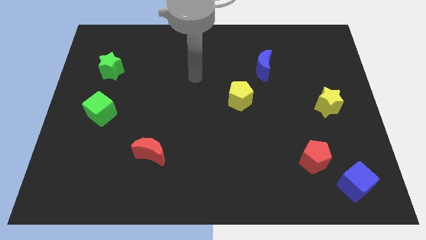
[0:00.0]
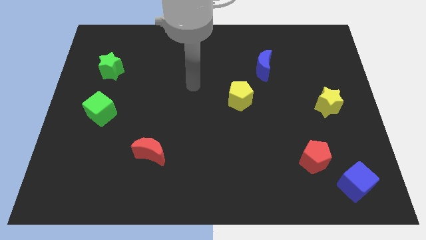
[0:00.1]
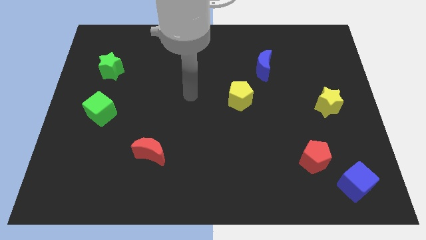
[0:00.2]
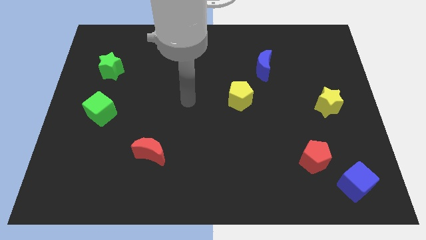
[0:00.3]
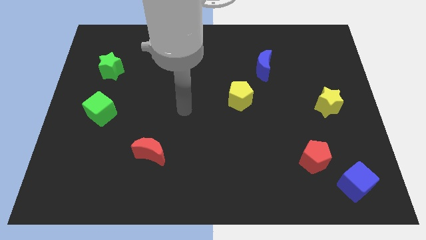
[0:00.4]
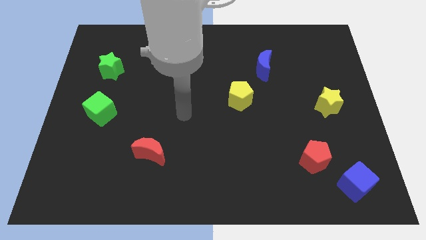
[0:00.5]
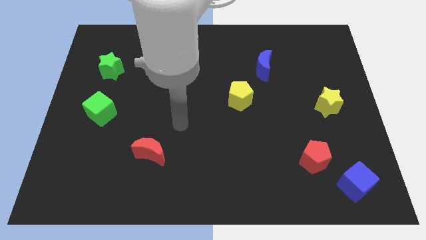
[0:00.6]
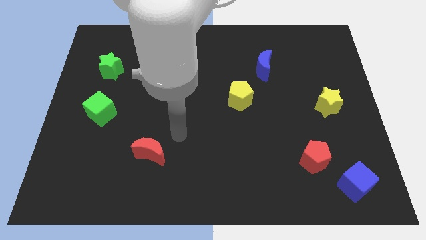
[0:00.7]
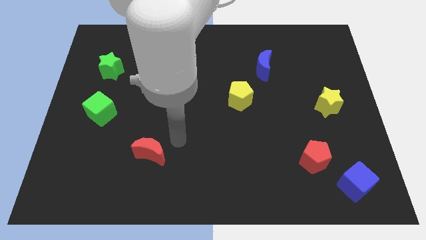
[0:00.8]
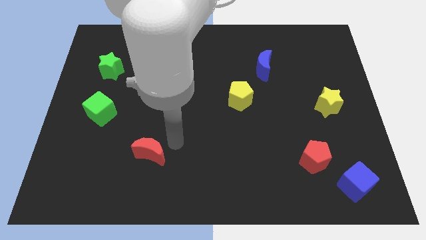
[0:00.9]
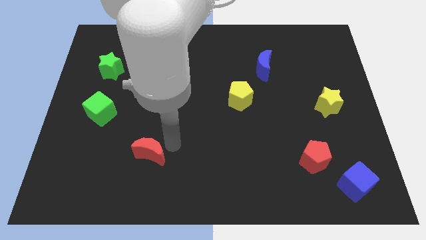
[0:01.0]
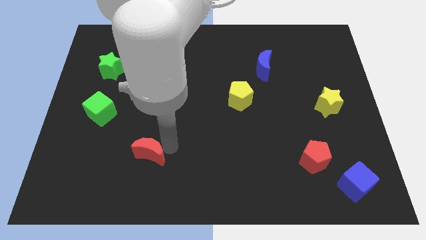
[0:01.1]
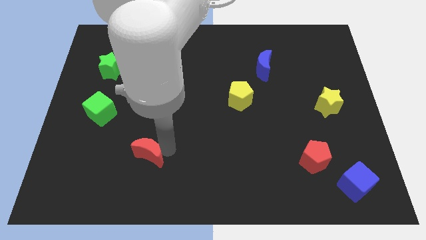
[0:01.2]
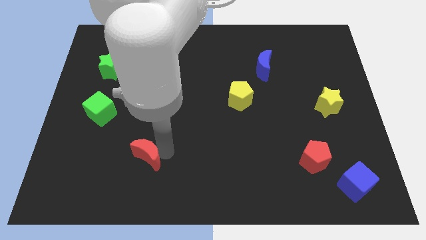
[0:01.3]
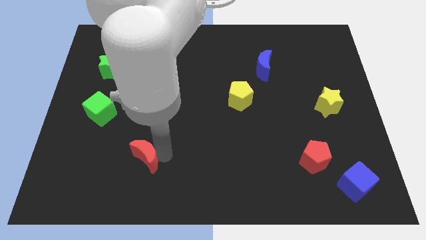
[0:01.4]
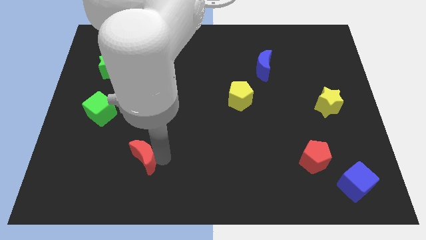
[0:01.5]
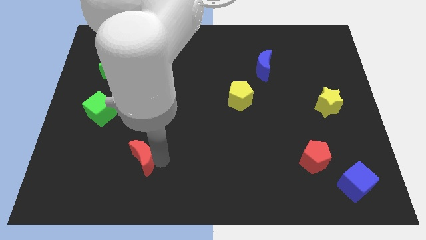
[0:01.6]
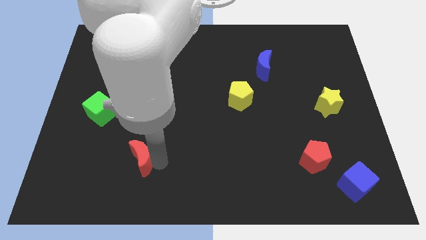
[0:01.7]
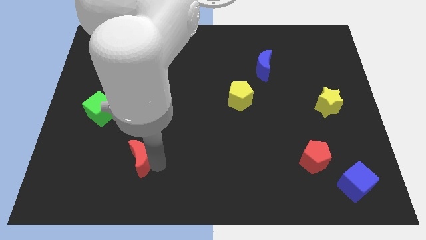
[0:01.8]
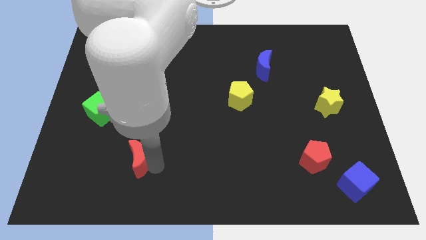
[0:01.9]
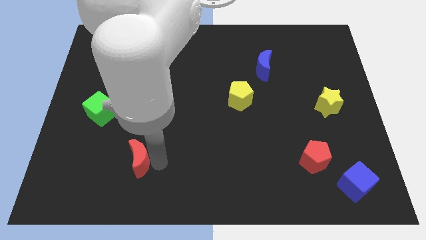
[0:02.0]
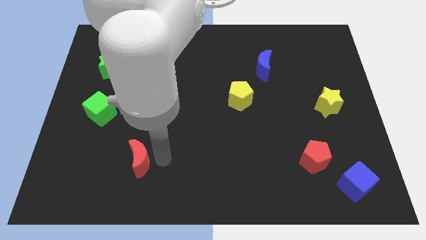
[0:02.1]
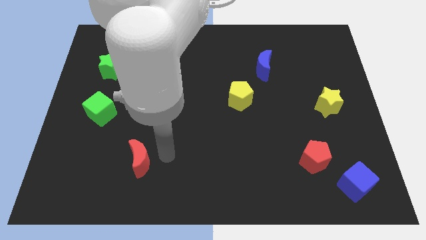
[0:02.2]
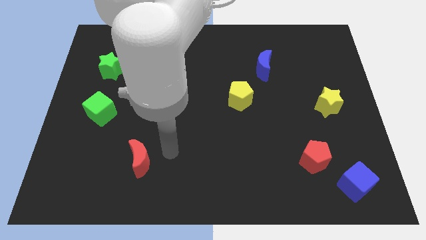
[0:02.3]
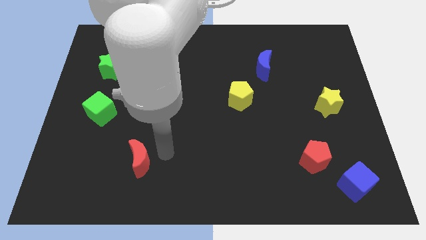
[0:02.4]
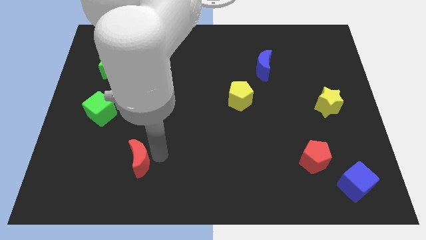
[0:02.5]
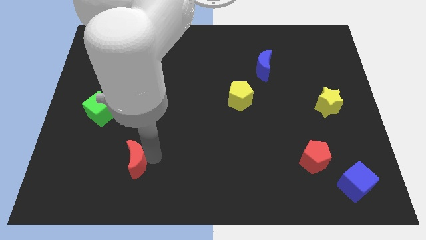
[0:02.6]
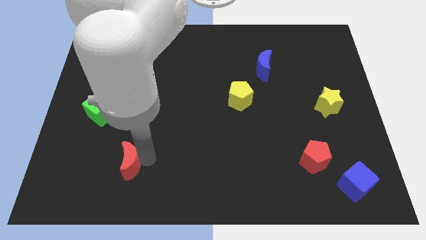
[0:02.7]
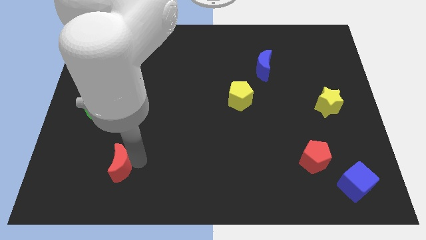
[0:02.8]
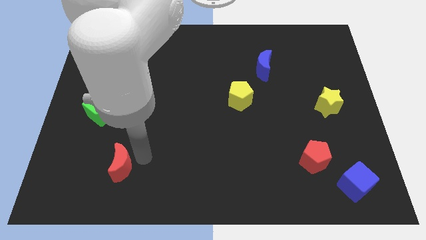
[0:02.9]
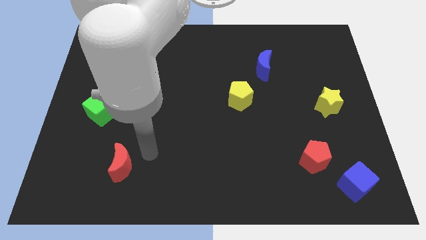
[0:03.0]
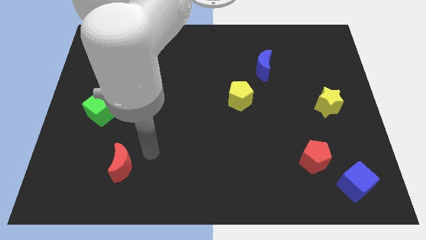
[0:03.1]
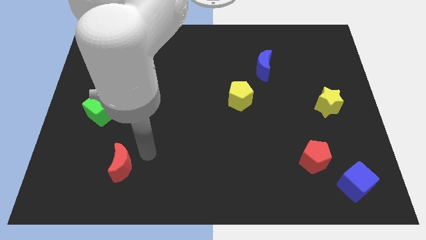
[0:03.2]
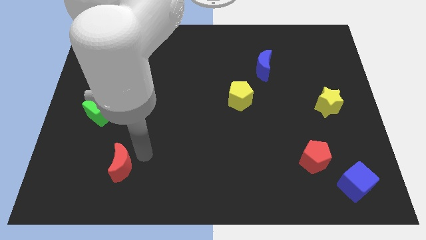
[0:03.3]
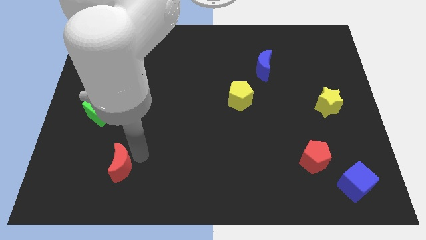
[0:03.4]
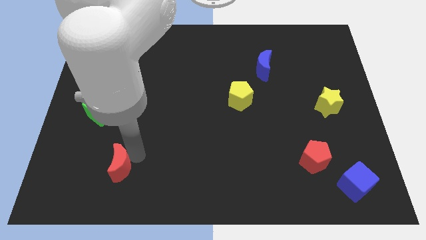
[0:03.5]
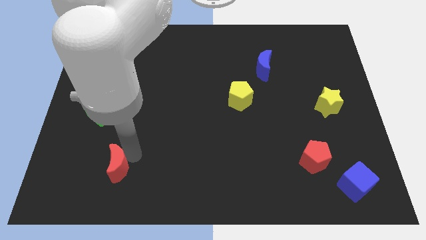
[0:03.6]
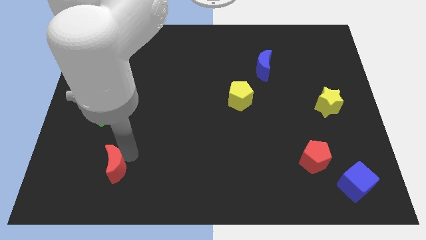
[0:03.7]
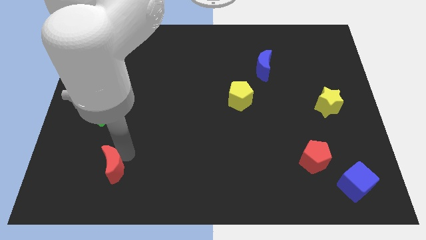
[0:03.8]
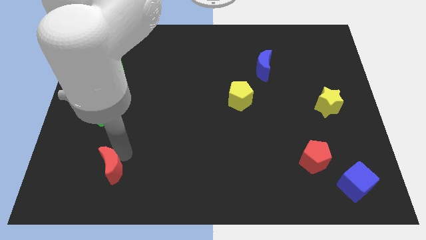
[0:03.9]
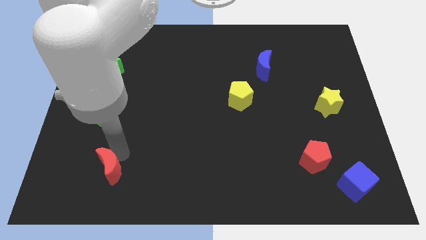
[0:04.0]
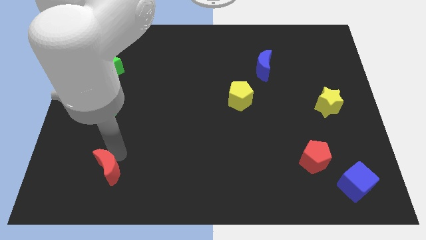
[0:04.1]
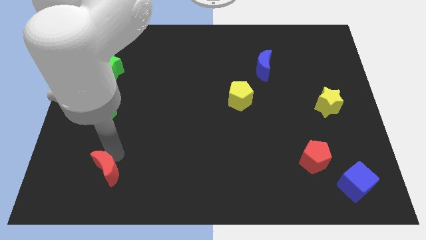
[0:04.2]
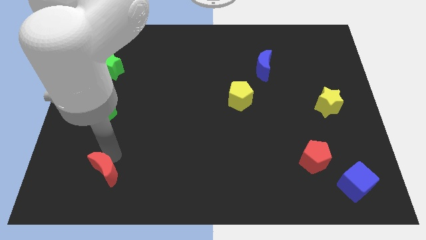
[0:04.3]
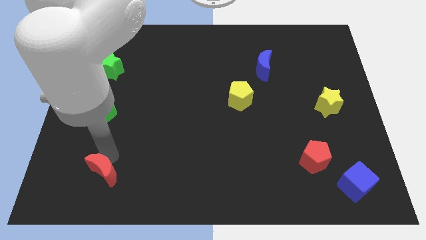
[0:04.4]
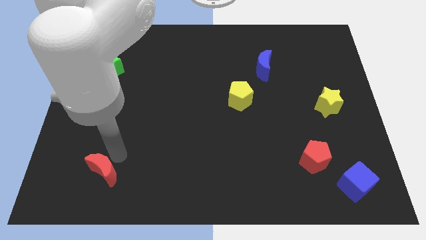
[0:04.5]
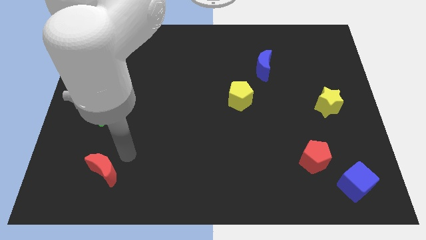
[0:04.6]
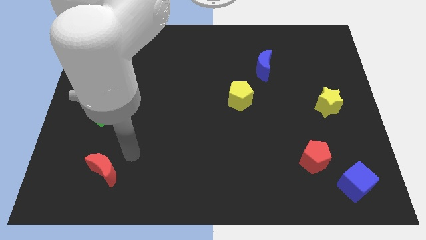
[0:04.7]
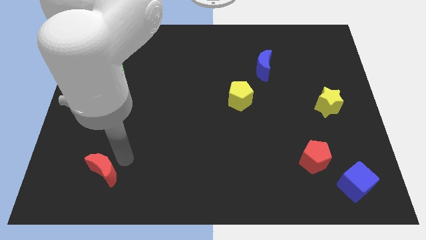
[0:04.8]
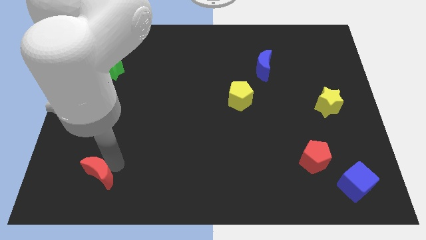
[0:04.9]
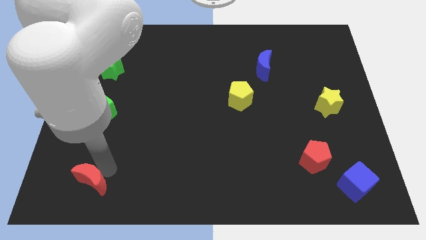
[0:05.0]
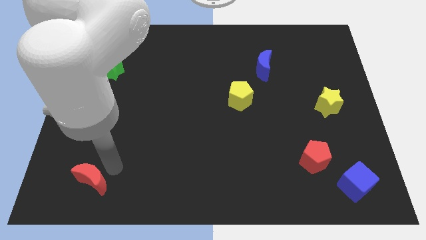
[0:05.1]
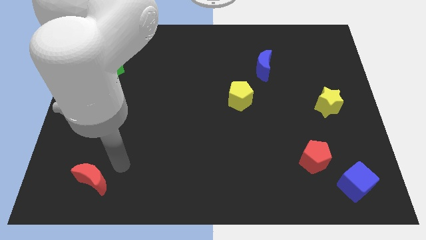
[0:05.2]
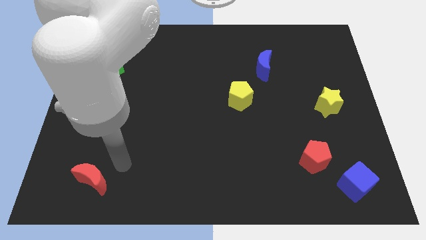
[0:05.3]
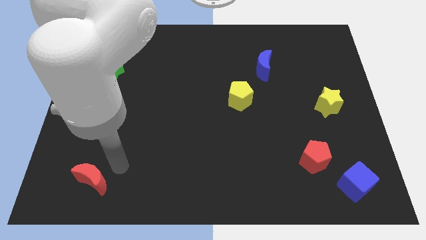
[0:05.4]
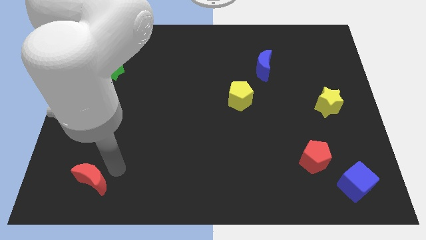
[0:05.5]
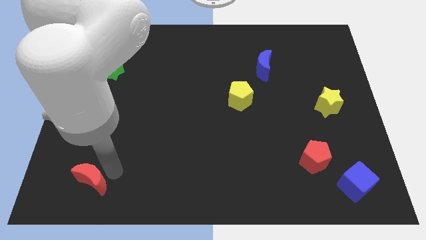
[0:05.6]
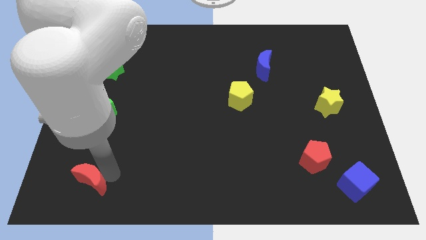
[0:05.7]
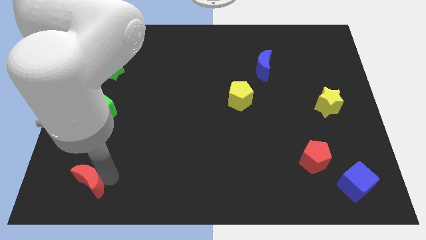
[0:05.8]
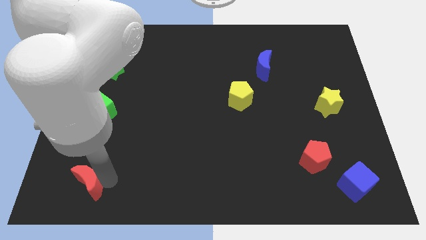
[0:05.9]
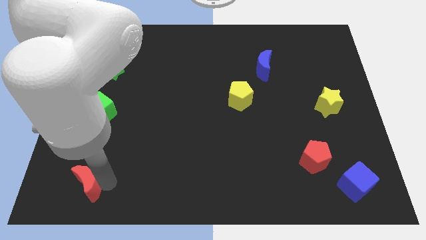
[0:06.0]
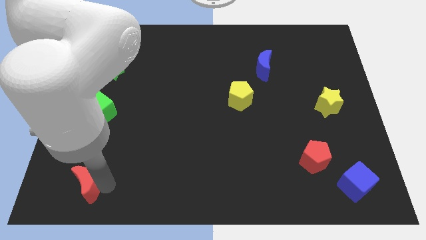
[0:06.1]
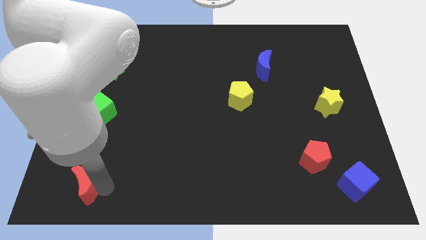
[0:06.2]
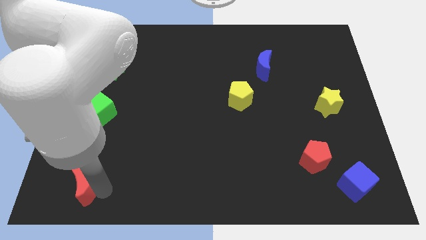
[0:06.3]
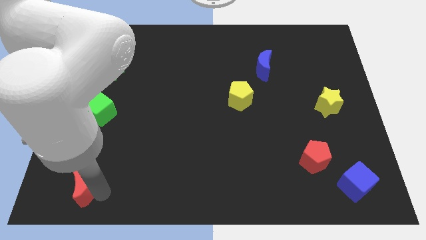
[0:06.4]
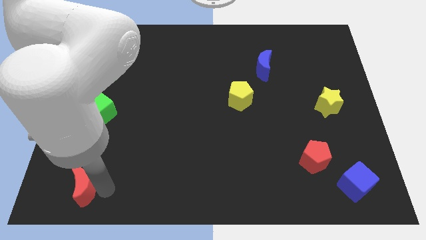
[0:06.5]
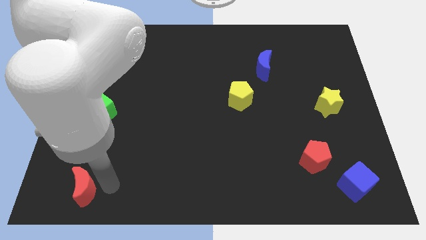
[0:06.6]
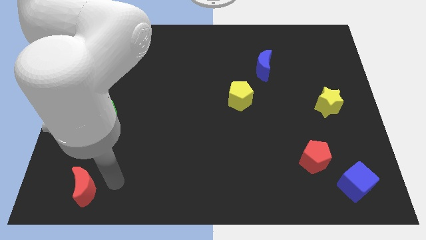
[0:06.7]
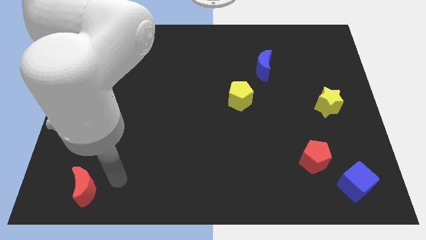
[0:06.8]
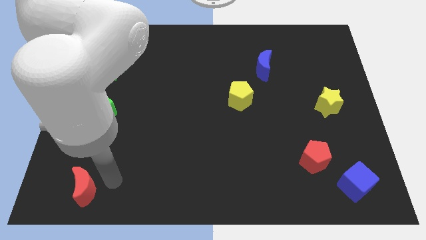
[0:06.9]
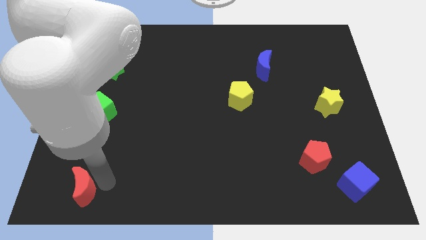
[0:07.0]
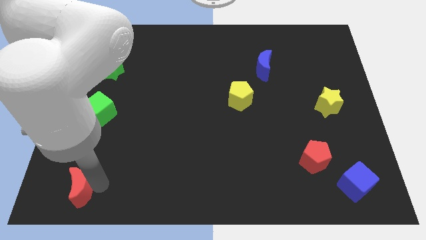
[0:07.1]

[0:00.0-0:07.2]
slide the red moon to the bottom left
